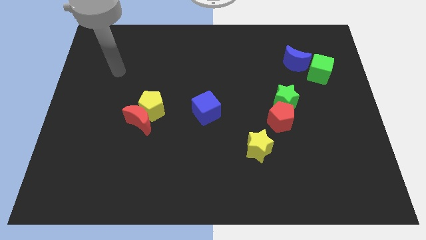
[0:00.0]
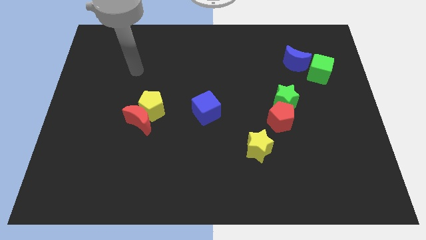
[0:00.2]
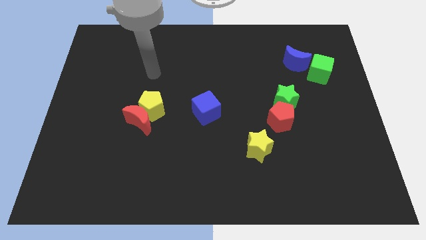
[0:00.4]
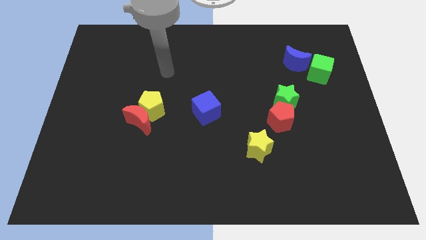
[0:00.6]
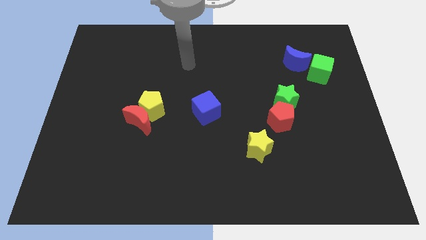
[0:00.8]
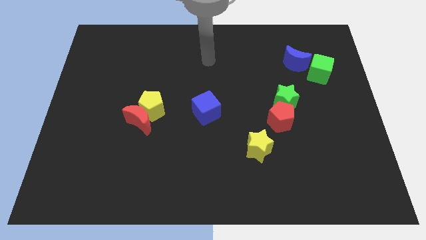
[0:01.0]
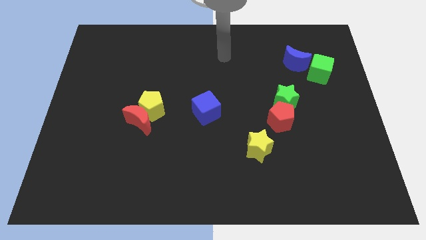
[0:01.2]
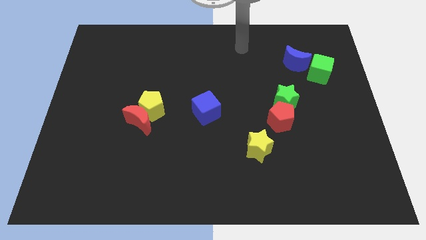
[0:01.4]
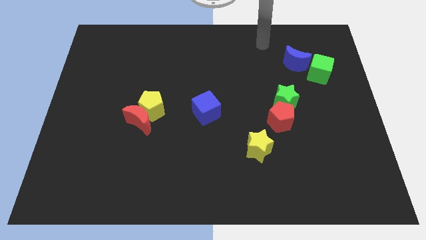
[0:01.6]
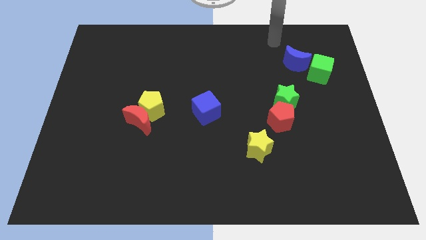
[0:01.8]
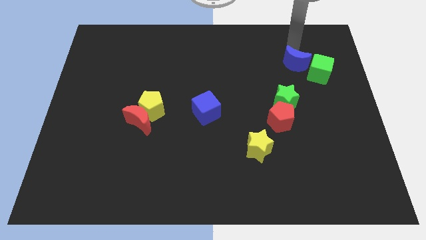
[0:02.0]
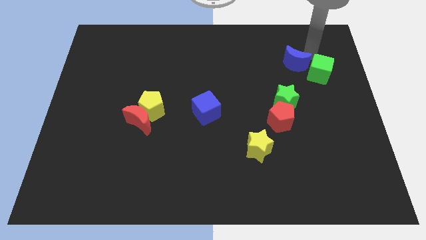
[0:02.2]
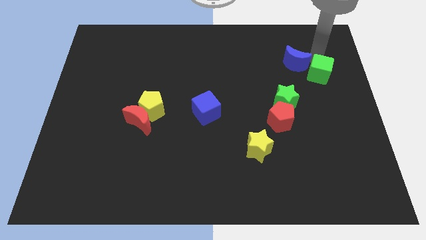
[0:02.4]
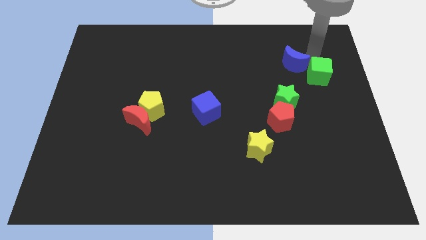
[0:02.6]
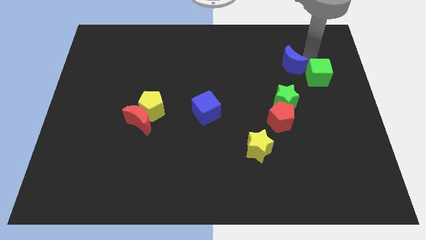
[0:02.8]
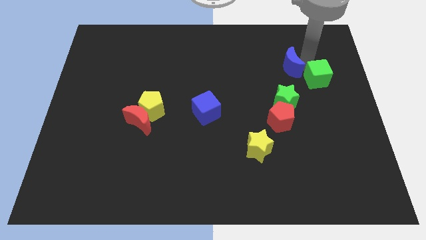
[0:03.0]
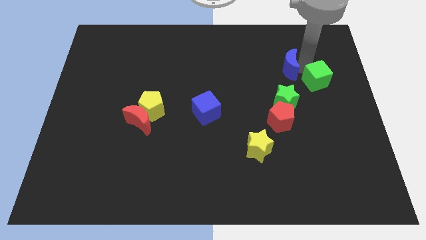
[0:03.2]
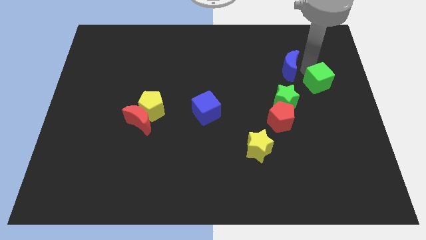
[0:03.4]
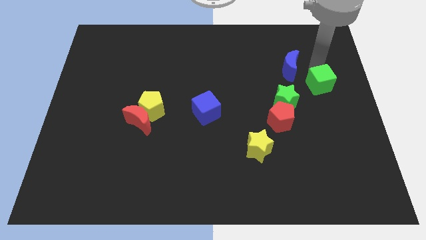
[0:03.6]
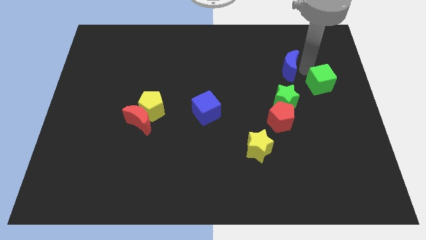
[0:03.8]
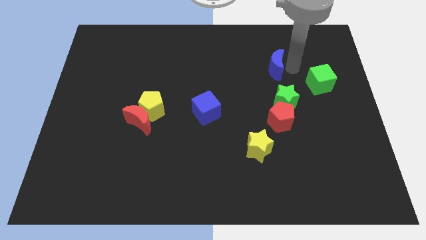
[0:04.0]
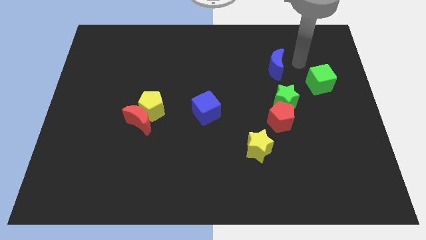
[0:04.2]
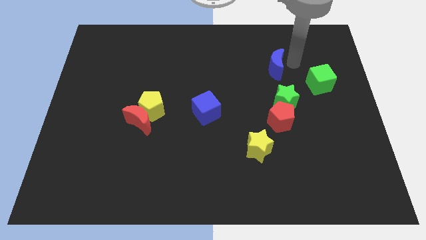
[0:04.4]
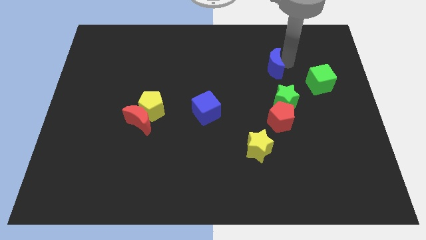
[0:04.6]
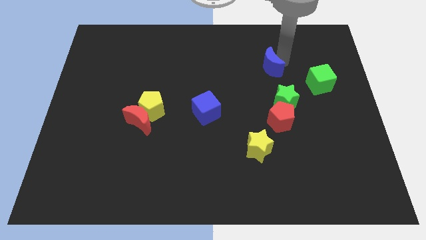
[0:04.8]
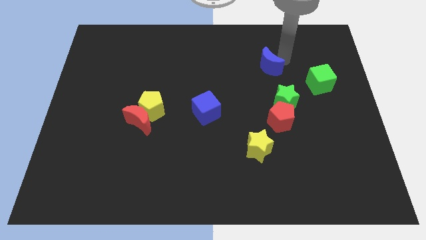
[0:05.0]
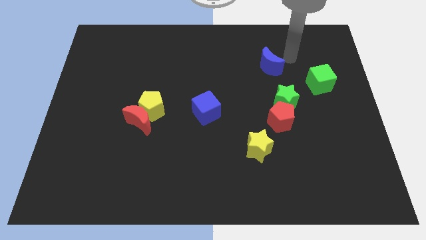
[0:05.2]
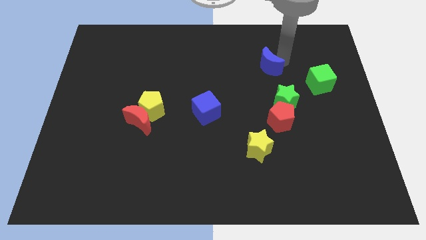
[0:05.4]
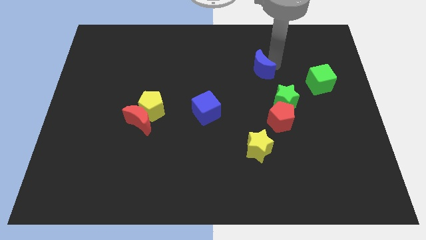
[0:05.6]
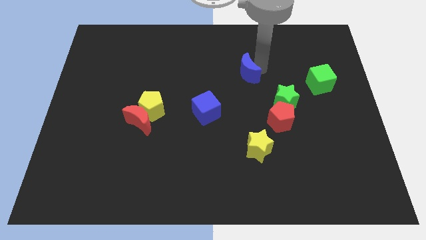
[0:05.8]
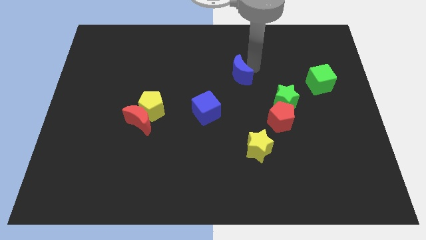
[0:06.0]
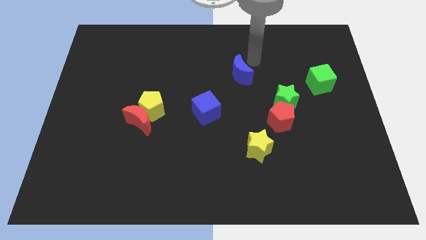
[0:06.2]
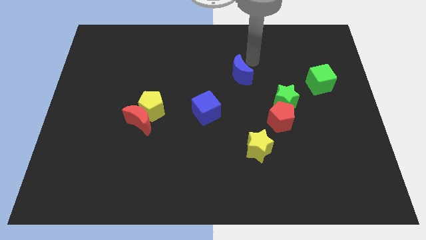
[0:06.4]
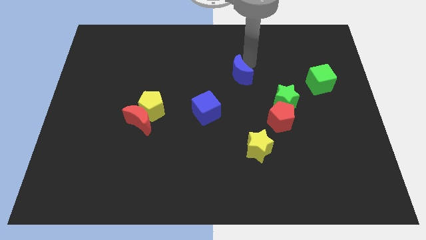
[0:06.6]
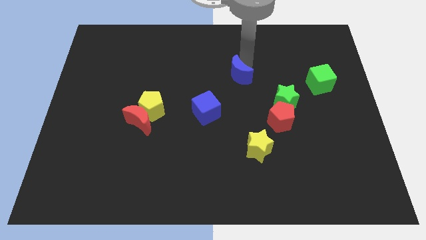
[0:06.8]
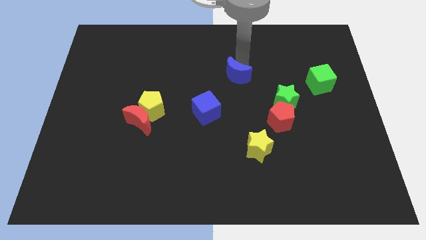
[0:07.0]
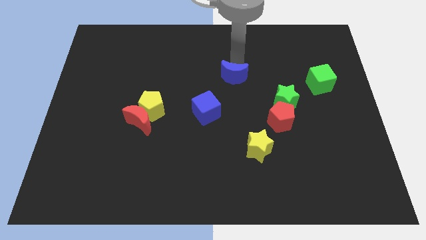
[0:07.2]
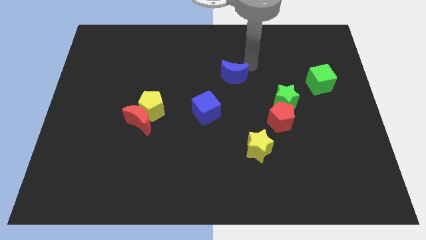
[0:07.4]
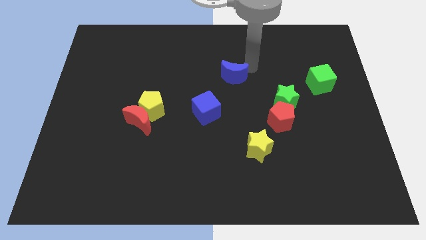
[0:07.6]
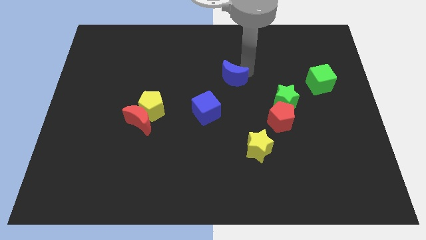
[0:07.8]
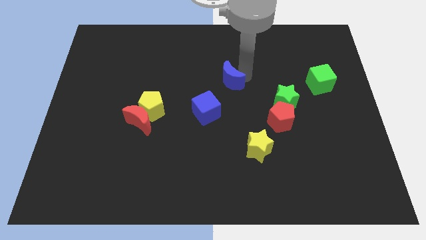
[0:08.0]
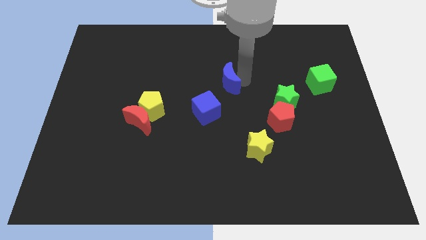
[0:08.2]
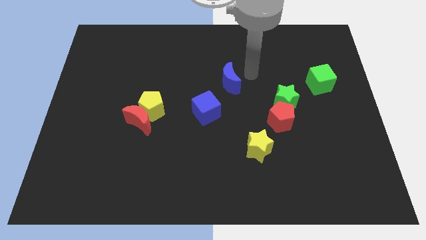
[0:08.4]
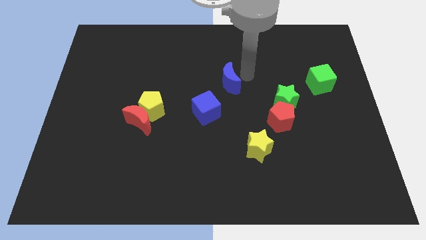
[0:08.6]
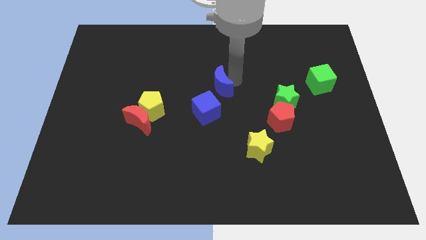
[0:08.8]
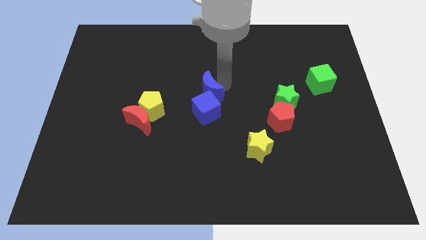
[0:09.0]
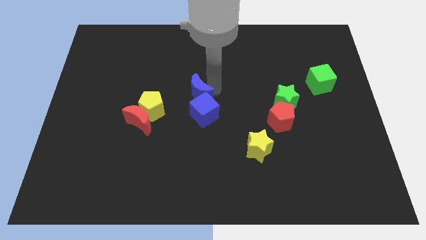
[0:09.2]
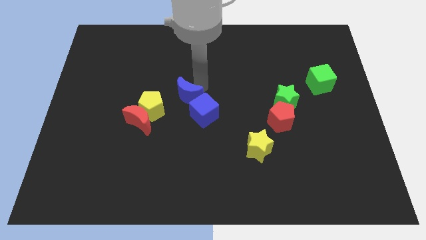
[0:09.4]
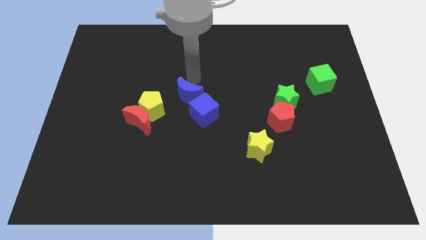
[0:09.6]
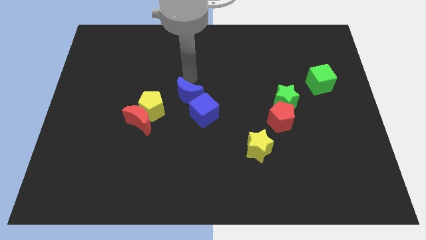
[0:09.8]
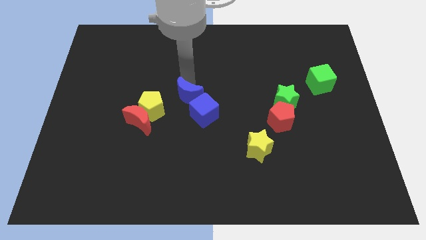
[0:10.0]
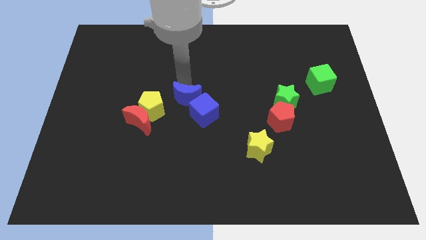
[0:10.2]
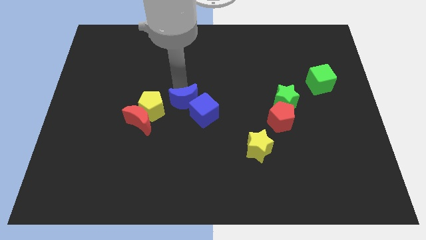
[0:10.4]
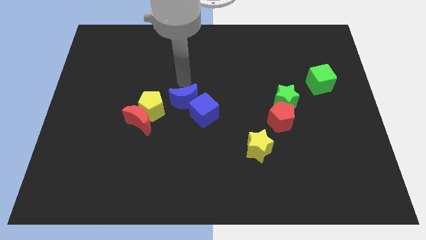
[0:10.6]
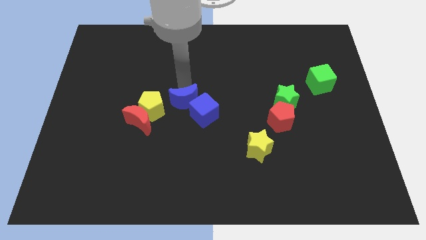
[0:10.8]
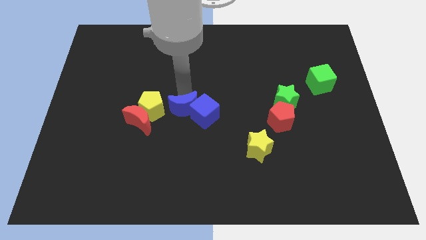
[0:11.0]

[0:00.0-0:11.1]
slide the blue moon to the right of the red moon

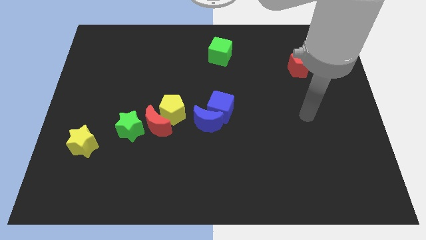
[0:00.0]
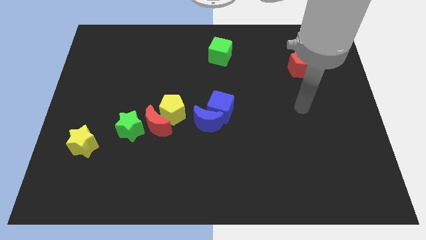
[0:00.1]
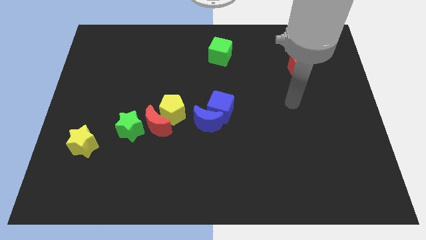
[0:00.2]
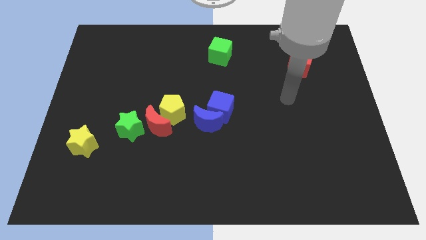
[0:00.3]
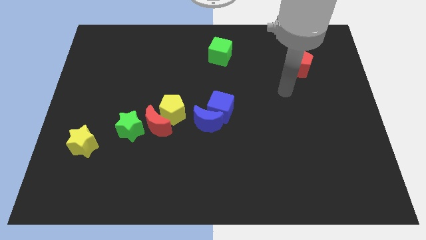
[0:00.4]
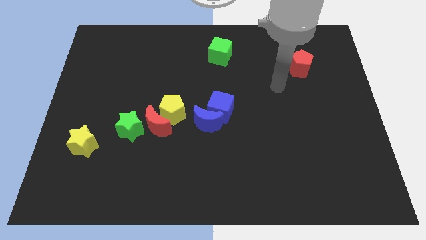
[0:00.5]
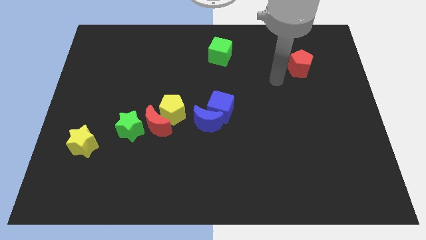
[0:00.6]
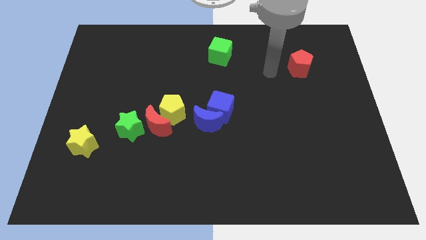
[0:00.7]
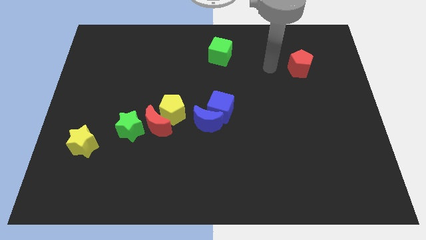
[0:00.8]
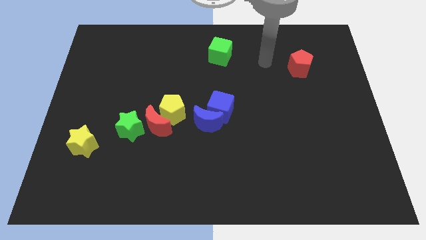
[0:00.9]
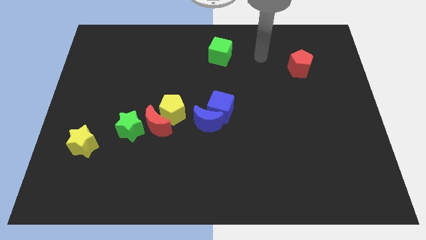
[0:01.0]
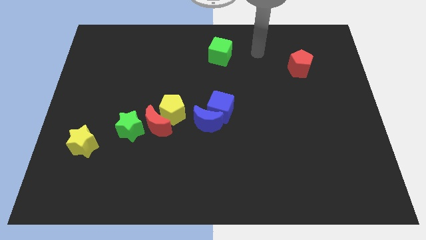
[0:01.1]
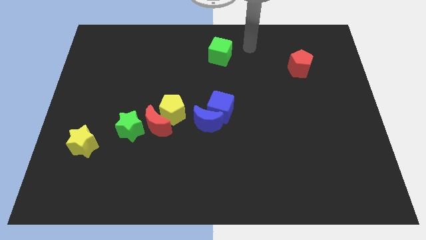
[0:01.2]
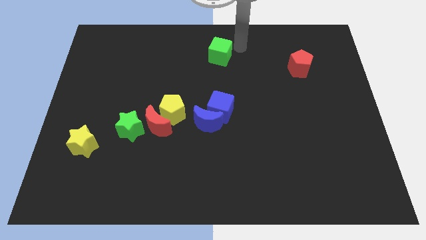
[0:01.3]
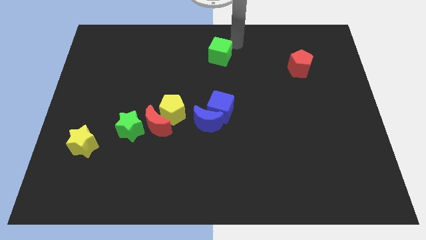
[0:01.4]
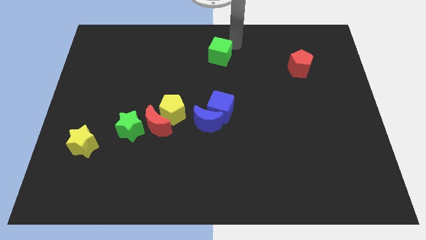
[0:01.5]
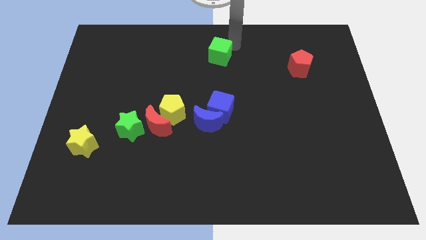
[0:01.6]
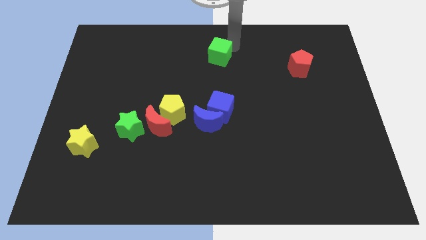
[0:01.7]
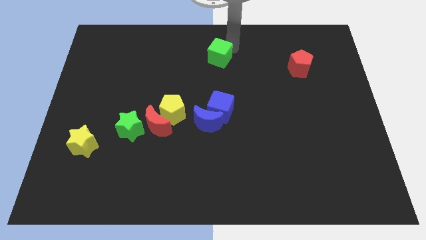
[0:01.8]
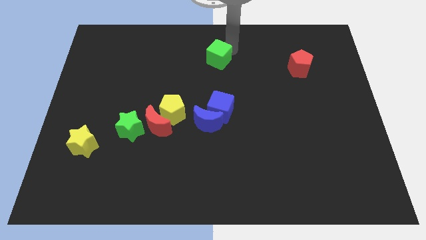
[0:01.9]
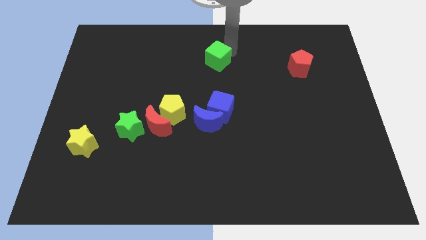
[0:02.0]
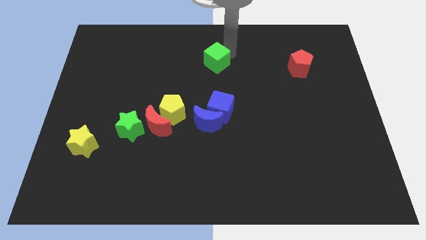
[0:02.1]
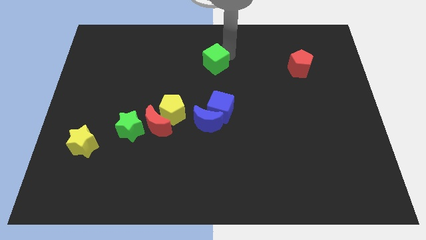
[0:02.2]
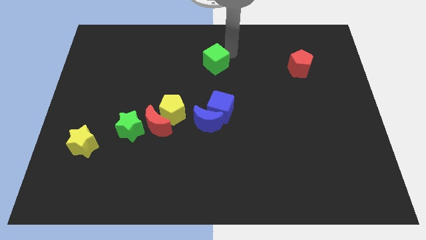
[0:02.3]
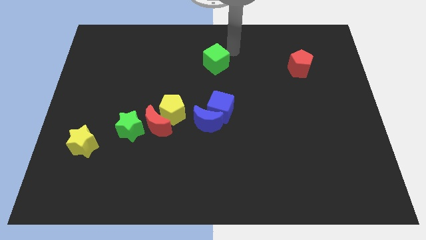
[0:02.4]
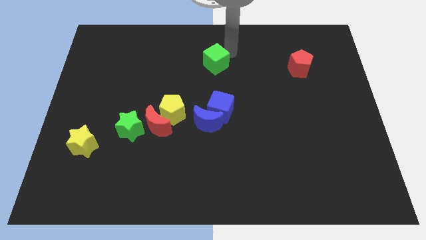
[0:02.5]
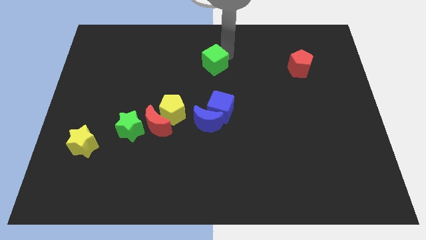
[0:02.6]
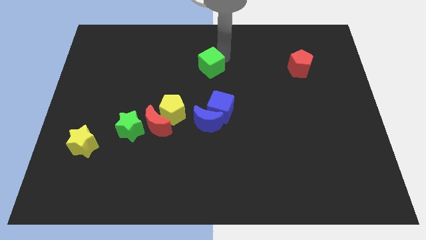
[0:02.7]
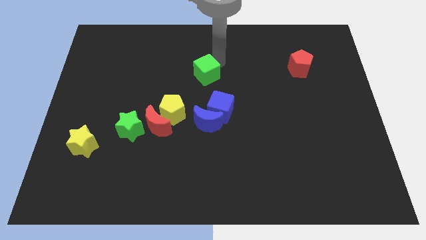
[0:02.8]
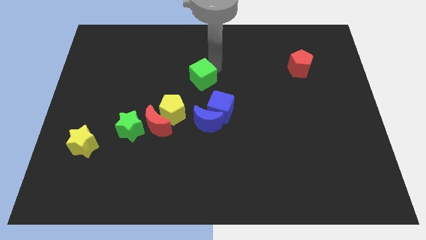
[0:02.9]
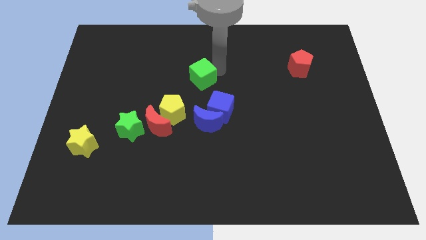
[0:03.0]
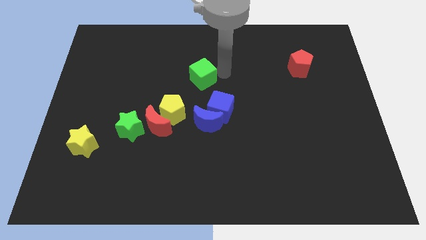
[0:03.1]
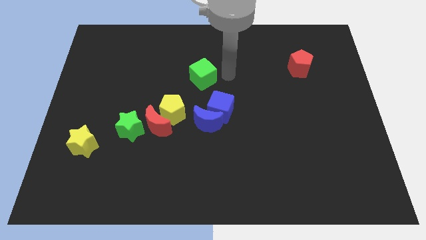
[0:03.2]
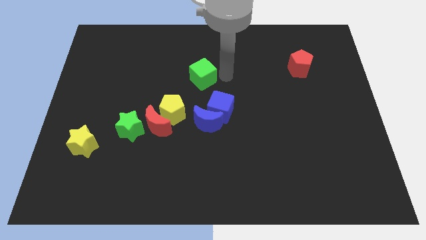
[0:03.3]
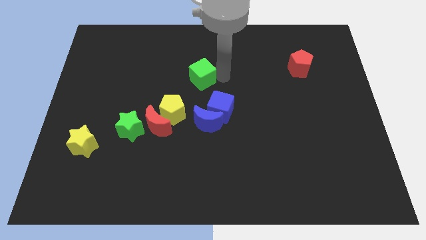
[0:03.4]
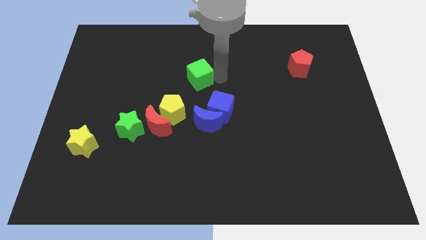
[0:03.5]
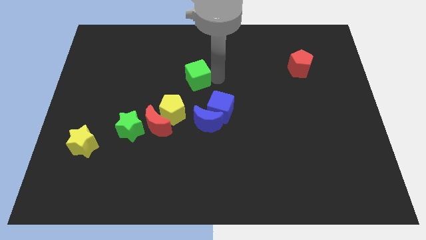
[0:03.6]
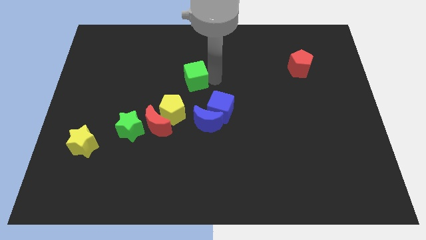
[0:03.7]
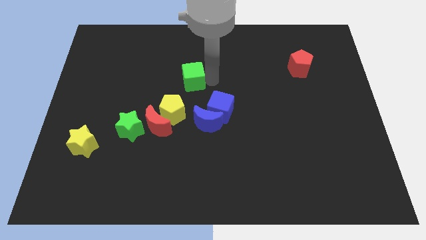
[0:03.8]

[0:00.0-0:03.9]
put the green cube above the yellow pentagon
